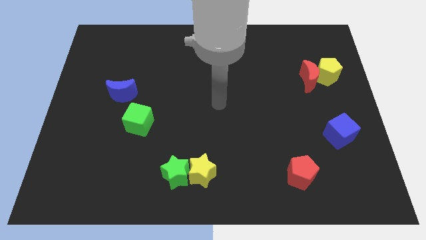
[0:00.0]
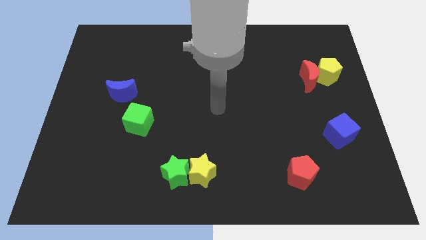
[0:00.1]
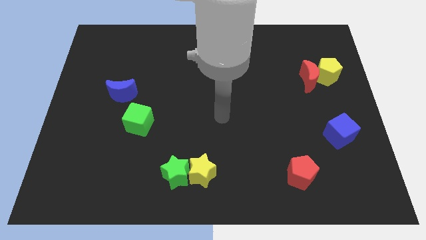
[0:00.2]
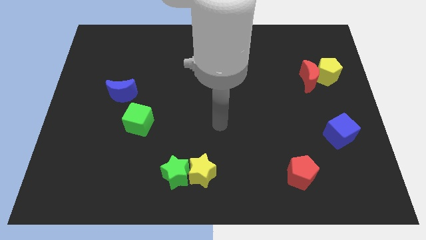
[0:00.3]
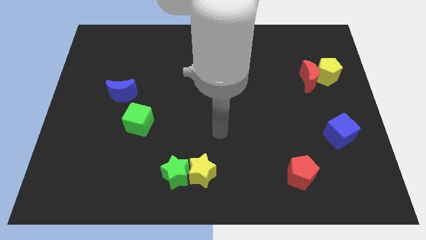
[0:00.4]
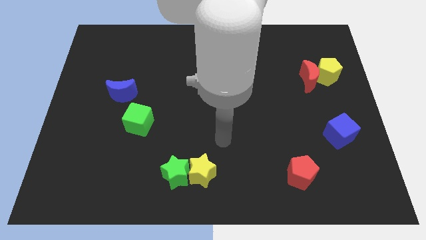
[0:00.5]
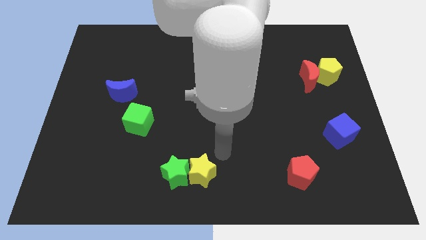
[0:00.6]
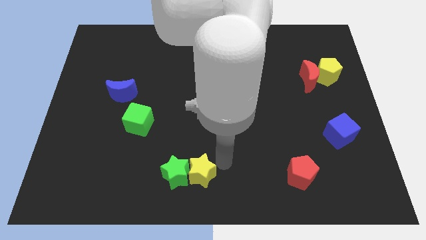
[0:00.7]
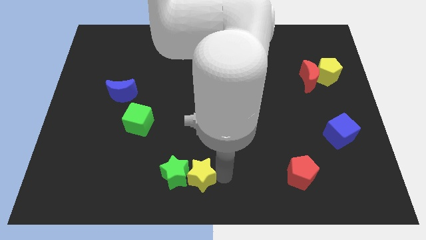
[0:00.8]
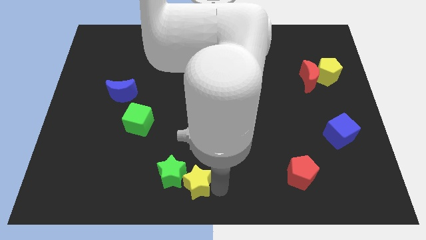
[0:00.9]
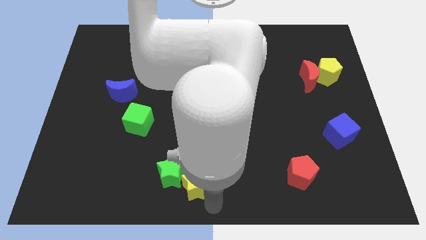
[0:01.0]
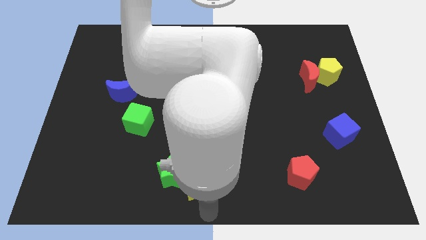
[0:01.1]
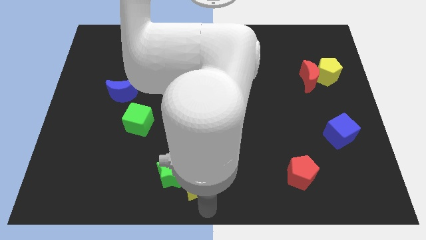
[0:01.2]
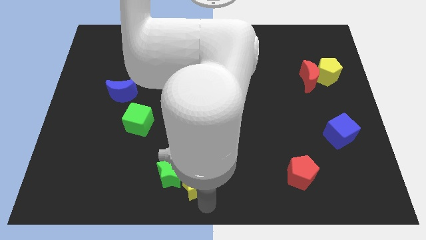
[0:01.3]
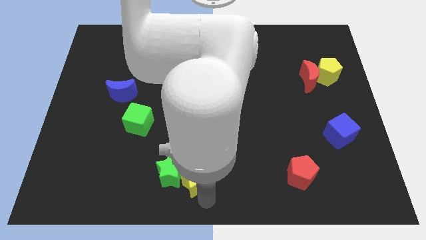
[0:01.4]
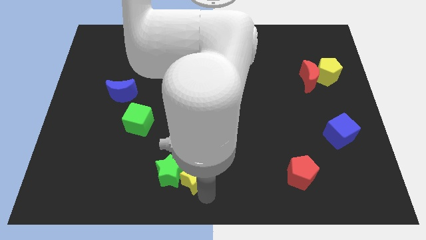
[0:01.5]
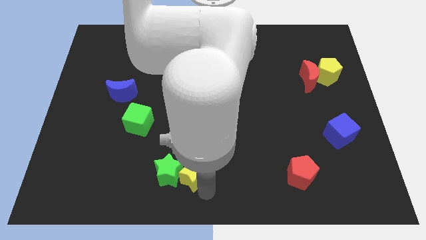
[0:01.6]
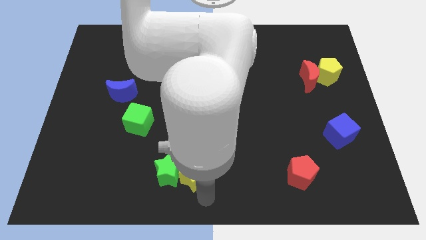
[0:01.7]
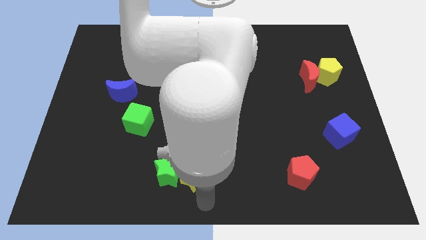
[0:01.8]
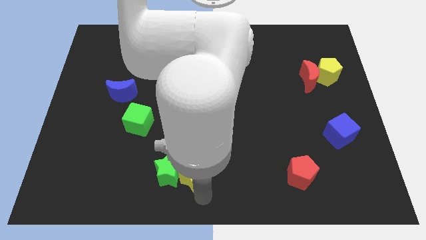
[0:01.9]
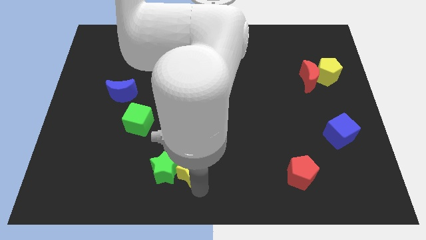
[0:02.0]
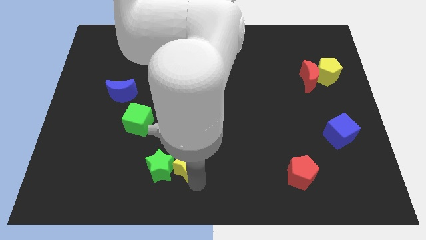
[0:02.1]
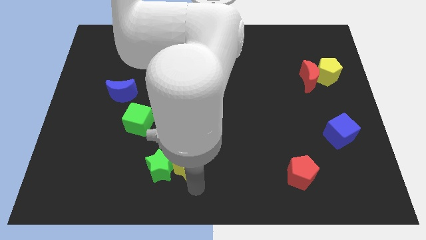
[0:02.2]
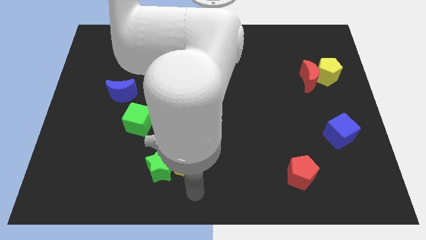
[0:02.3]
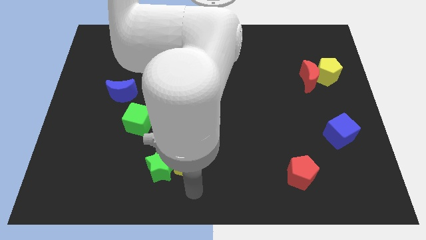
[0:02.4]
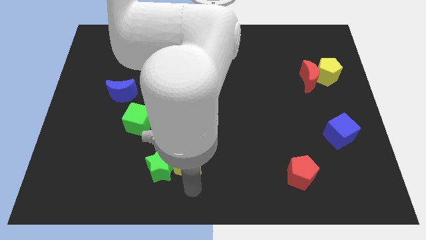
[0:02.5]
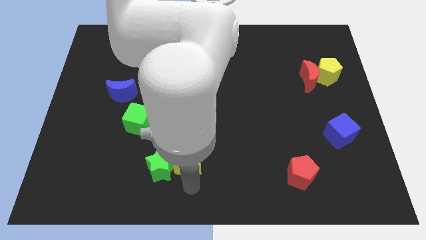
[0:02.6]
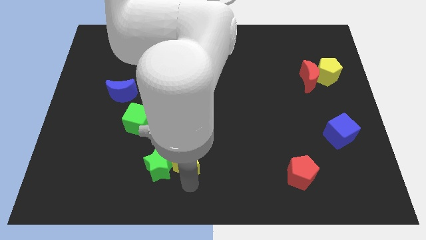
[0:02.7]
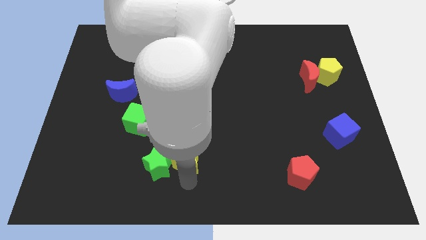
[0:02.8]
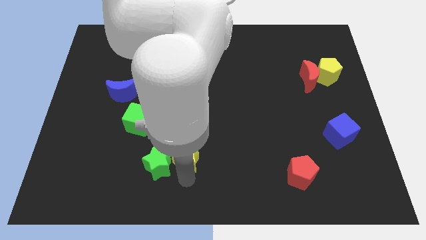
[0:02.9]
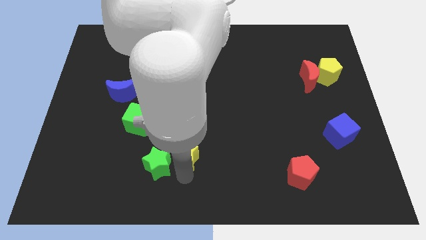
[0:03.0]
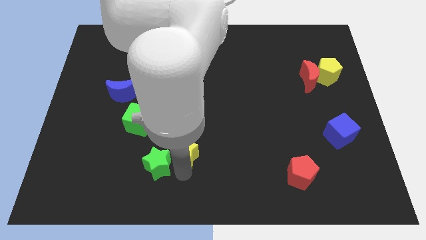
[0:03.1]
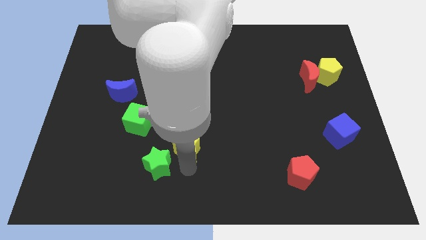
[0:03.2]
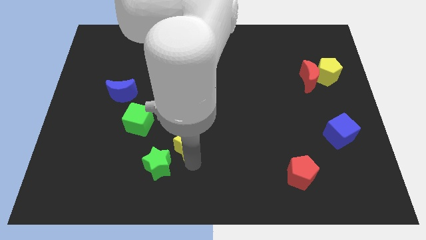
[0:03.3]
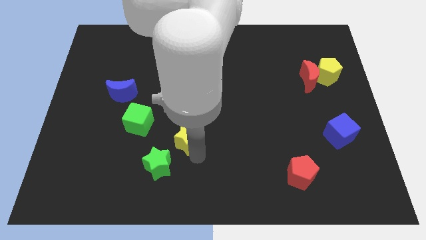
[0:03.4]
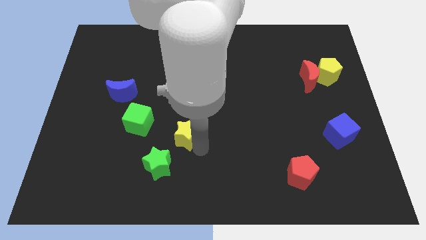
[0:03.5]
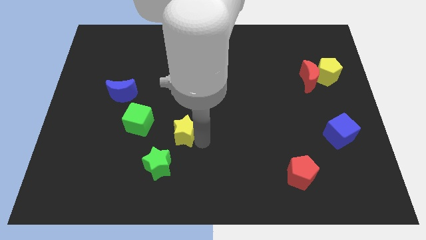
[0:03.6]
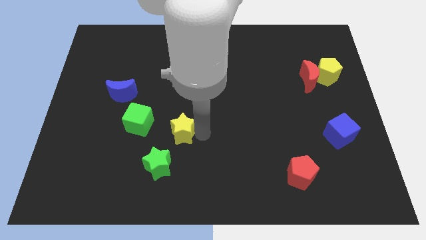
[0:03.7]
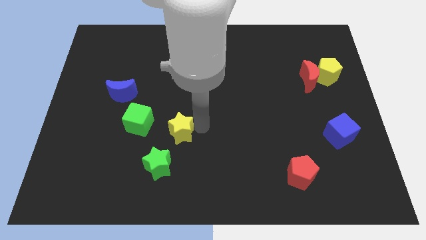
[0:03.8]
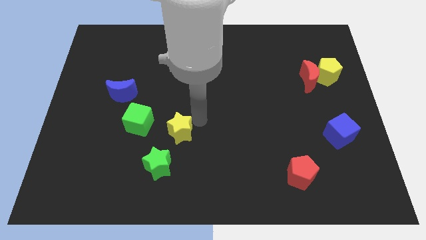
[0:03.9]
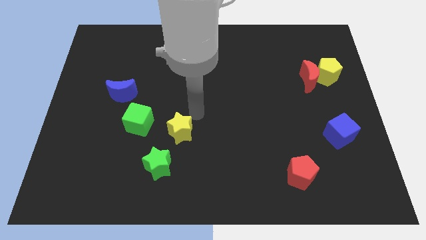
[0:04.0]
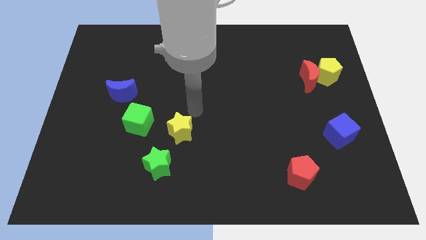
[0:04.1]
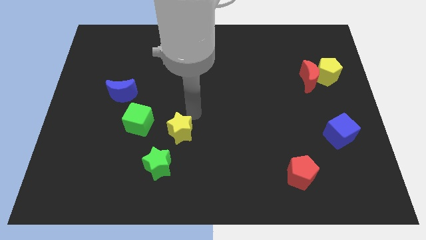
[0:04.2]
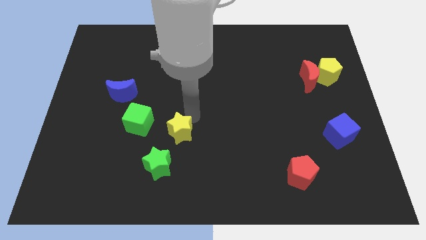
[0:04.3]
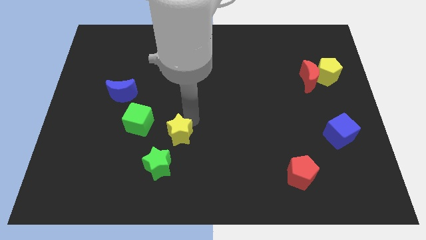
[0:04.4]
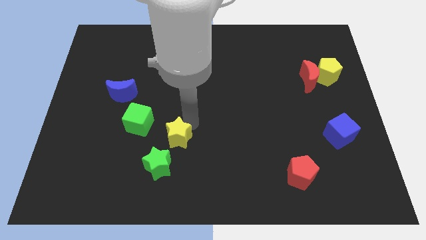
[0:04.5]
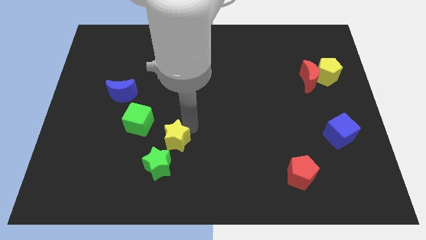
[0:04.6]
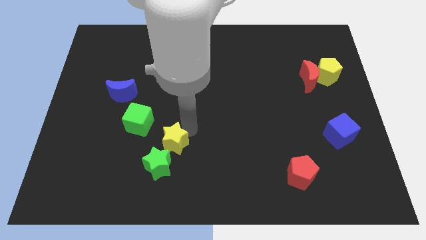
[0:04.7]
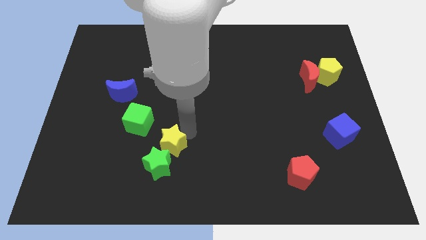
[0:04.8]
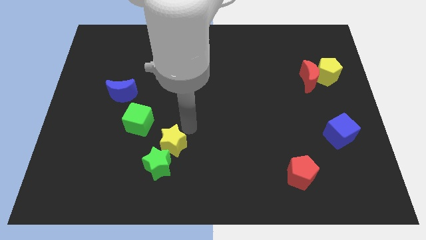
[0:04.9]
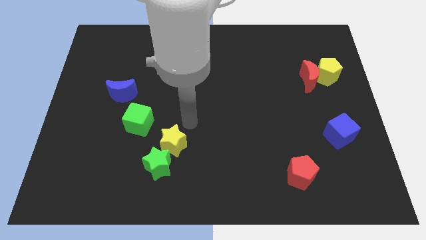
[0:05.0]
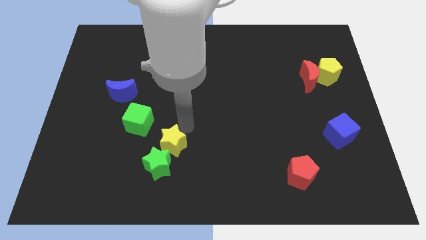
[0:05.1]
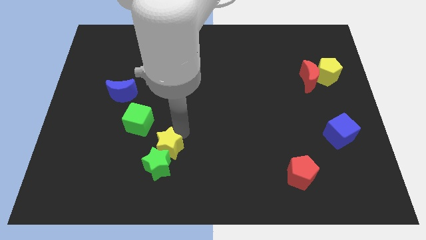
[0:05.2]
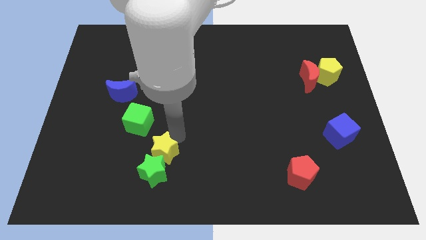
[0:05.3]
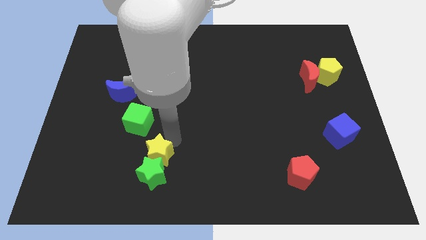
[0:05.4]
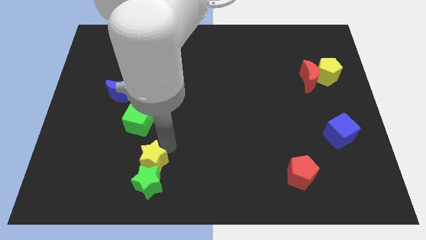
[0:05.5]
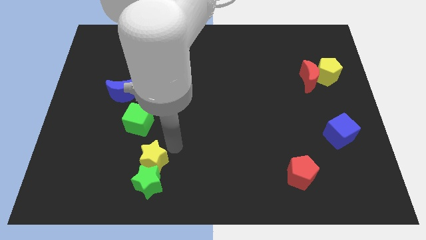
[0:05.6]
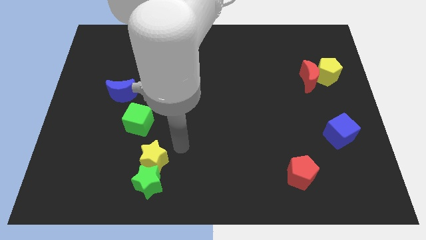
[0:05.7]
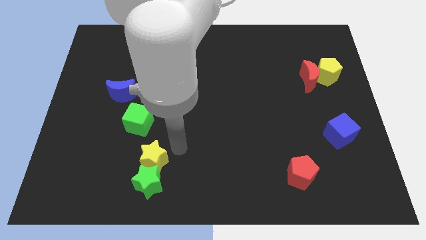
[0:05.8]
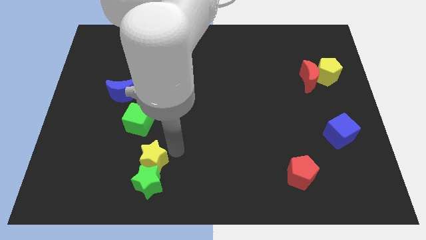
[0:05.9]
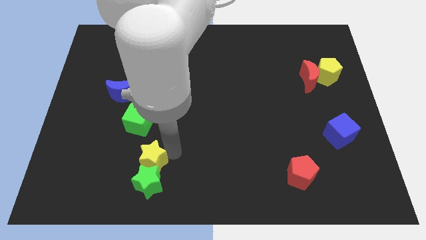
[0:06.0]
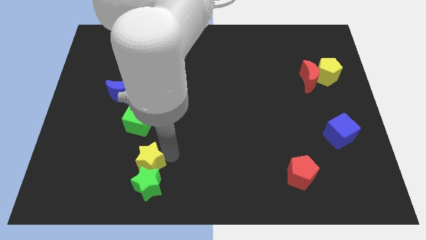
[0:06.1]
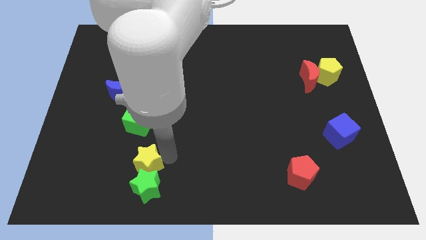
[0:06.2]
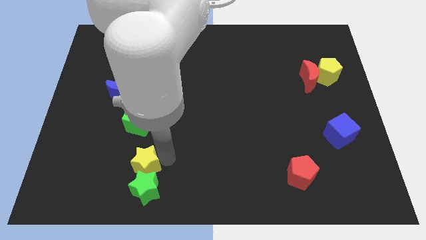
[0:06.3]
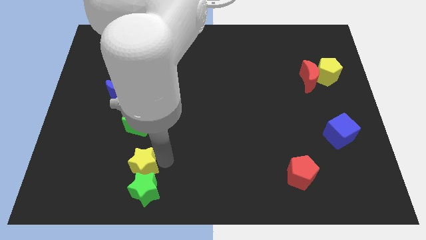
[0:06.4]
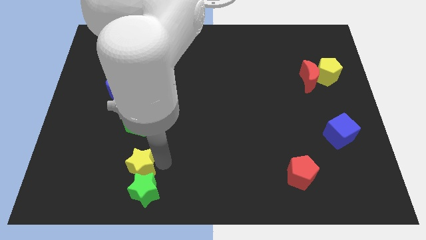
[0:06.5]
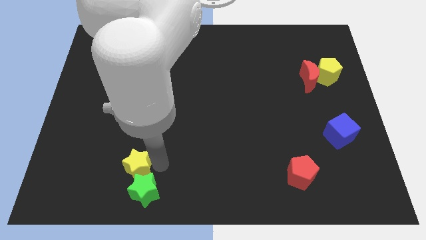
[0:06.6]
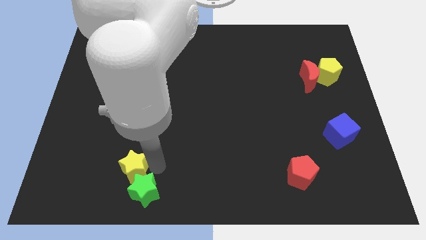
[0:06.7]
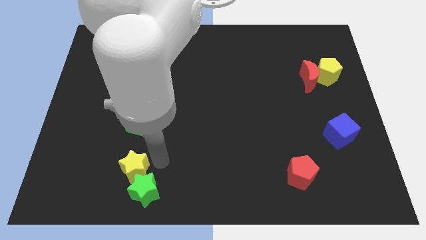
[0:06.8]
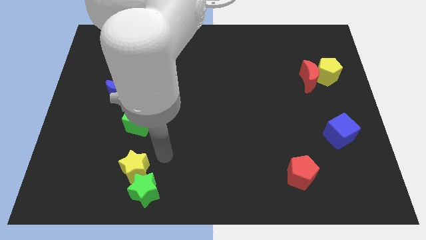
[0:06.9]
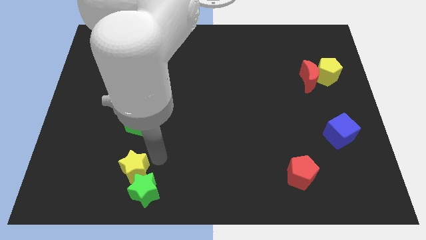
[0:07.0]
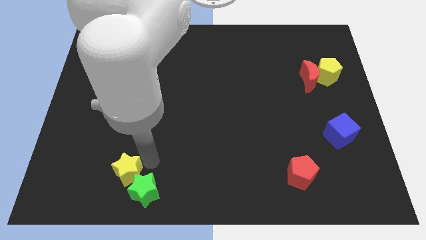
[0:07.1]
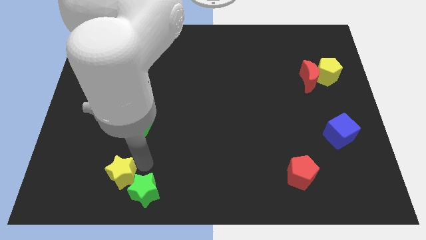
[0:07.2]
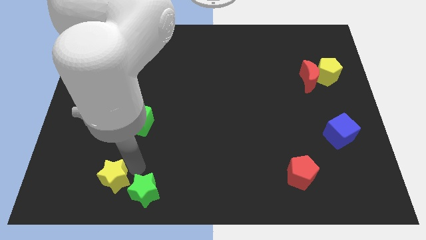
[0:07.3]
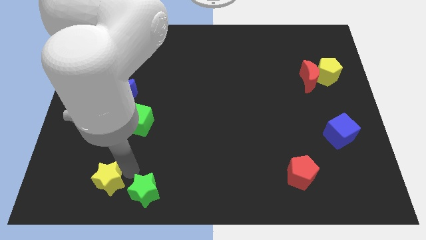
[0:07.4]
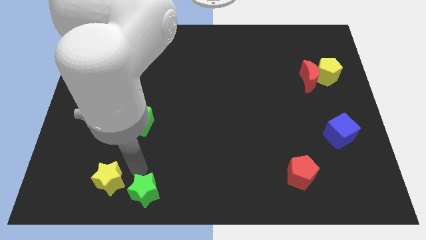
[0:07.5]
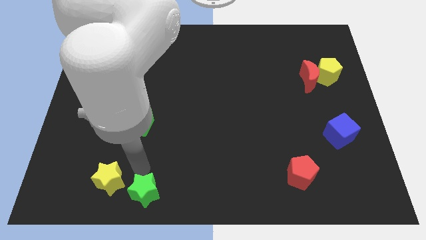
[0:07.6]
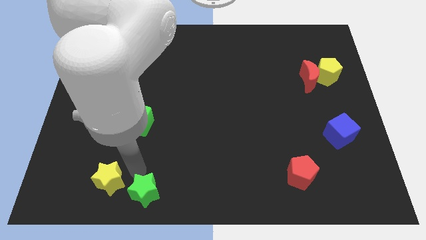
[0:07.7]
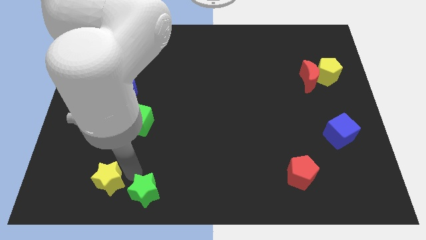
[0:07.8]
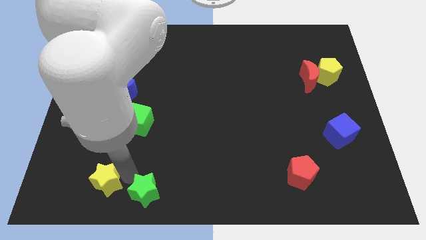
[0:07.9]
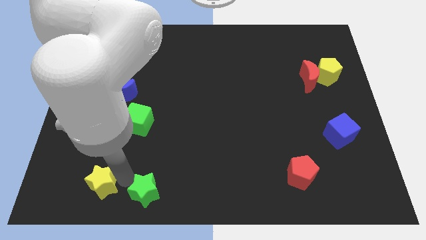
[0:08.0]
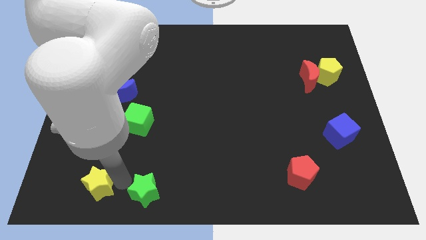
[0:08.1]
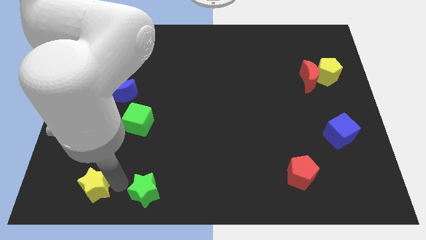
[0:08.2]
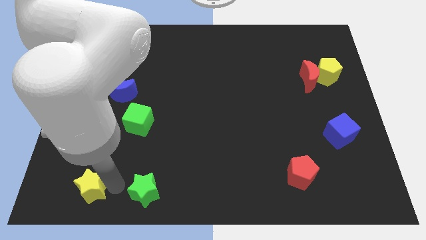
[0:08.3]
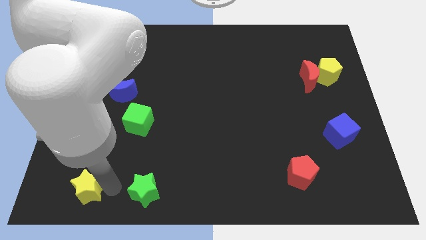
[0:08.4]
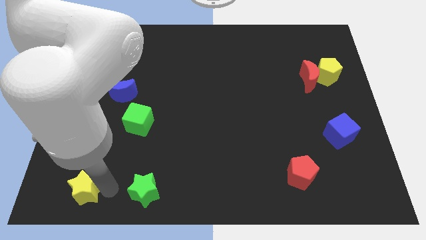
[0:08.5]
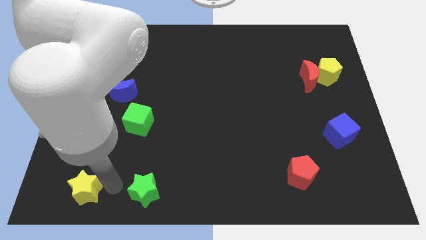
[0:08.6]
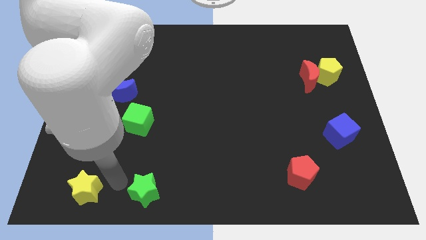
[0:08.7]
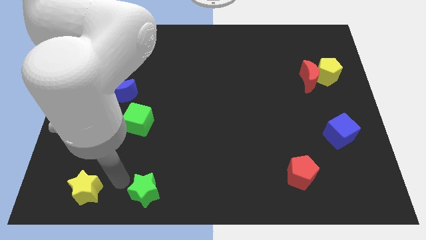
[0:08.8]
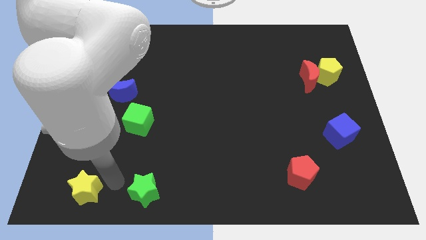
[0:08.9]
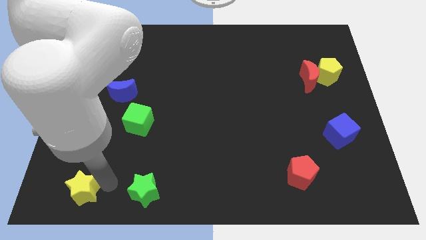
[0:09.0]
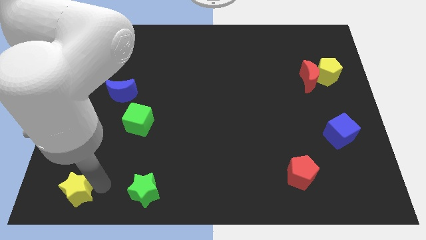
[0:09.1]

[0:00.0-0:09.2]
slide the yellow star to the lower left corner
